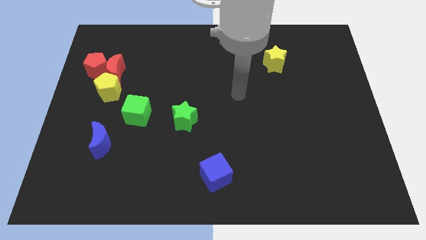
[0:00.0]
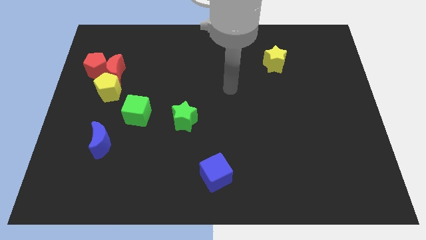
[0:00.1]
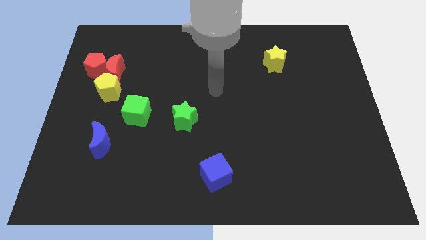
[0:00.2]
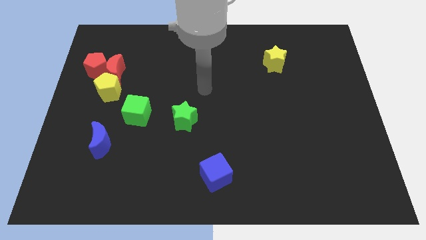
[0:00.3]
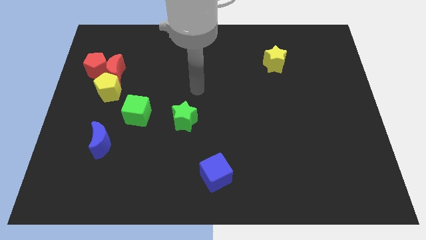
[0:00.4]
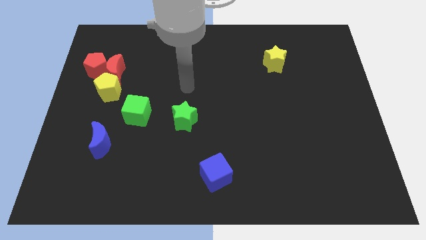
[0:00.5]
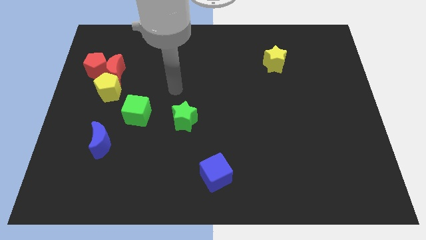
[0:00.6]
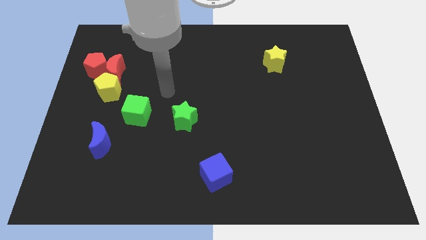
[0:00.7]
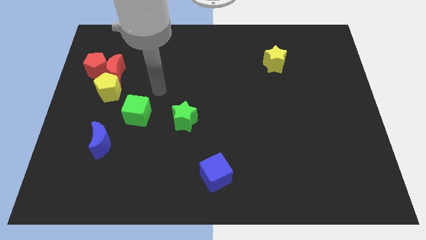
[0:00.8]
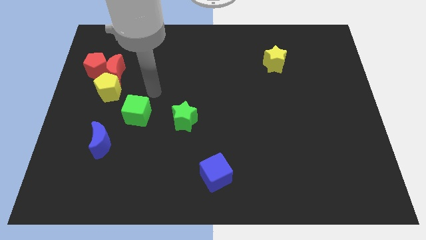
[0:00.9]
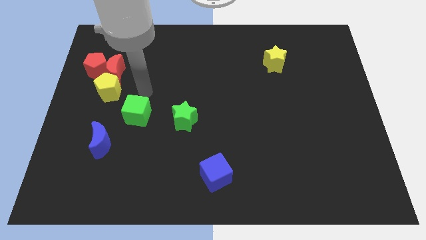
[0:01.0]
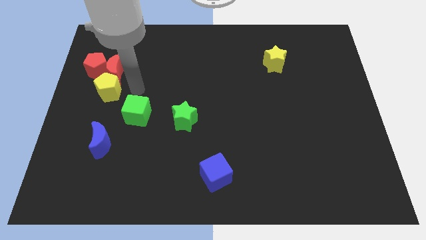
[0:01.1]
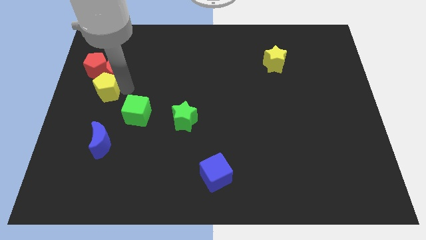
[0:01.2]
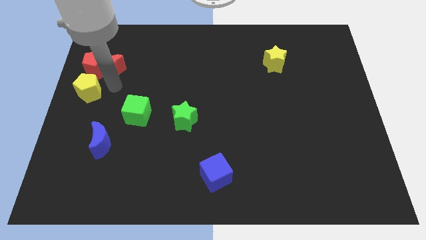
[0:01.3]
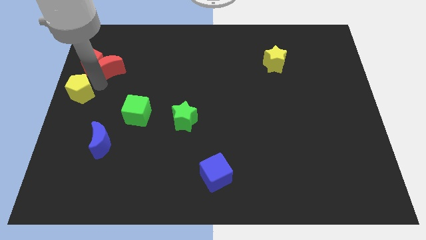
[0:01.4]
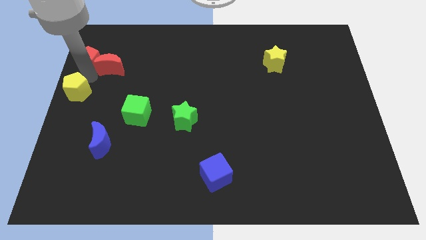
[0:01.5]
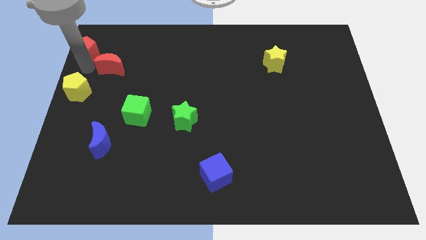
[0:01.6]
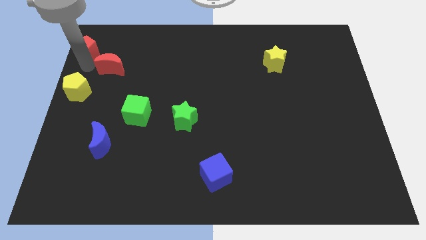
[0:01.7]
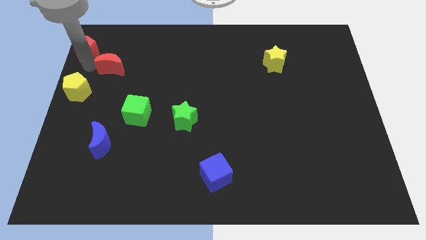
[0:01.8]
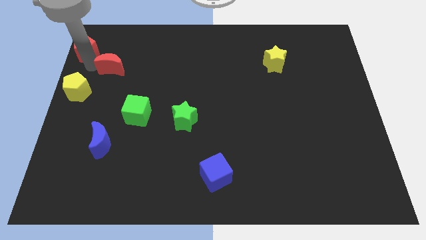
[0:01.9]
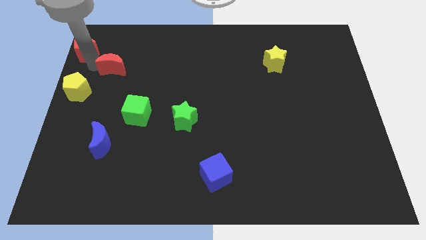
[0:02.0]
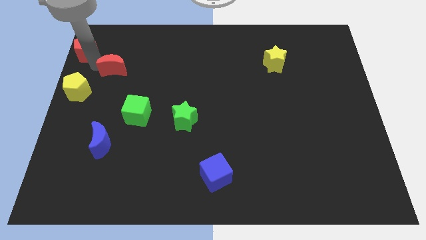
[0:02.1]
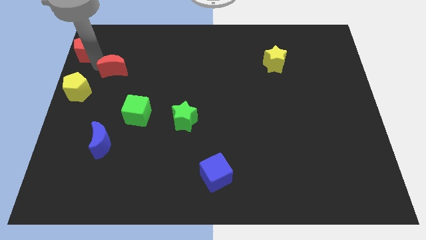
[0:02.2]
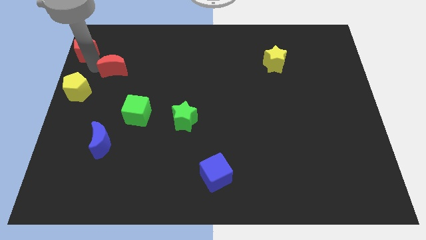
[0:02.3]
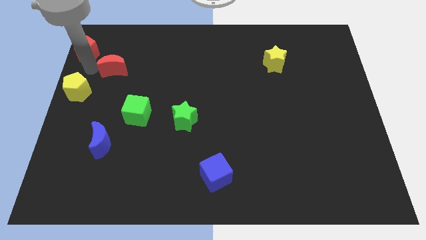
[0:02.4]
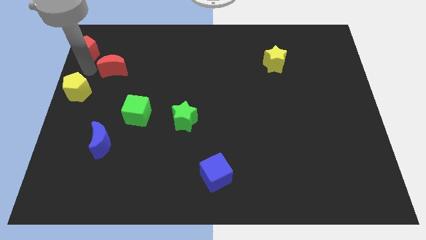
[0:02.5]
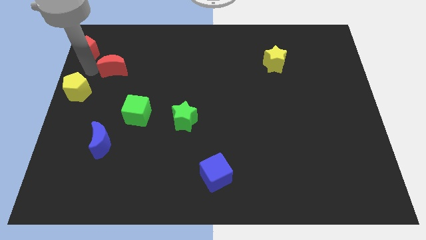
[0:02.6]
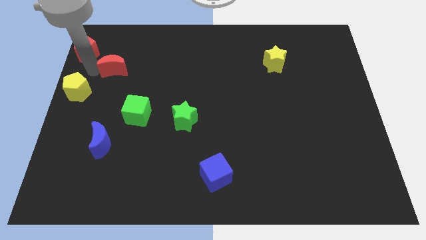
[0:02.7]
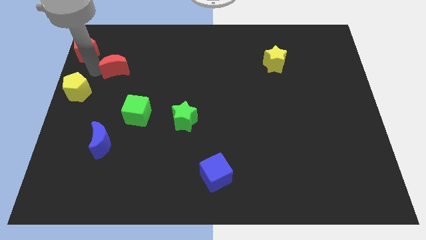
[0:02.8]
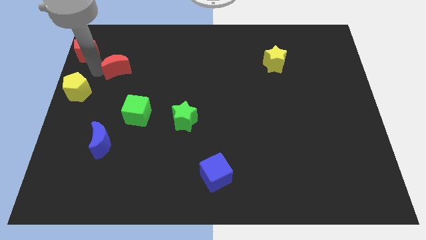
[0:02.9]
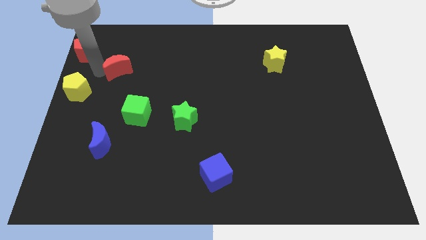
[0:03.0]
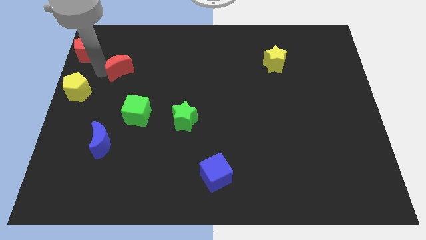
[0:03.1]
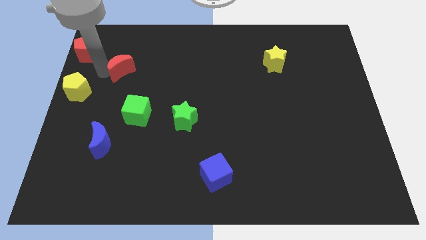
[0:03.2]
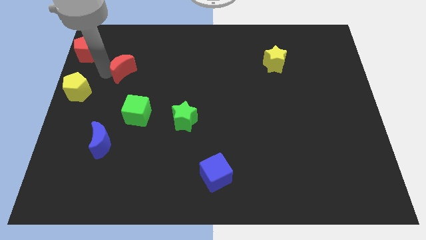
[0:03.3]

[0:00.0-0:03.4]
pull the red moon apart from the red pentagon and yellow pentagon

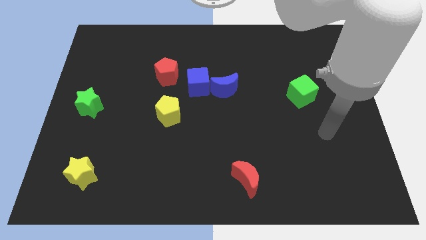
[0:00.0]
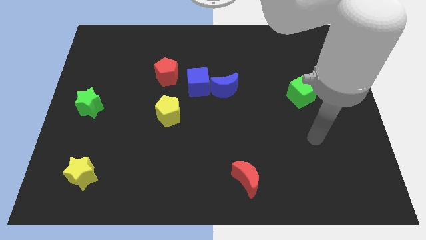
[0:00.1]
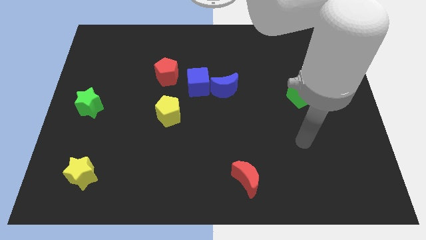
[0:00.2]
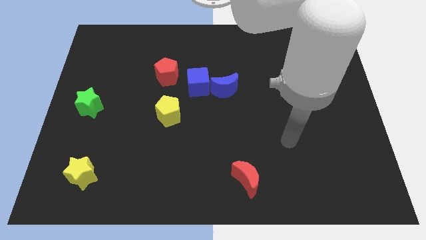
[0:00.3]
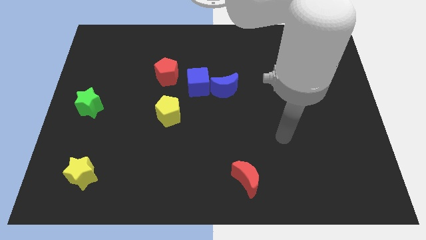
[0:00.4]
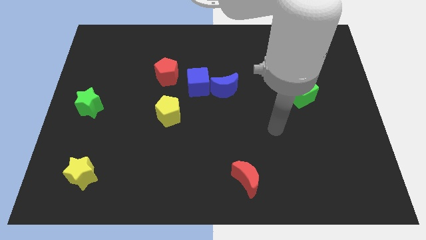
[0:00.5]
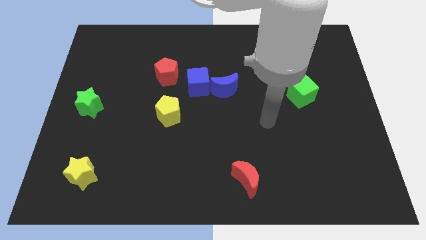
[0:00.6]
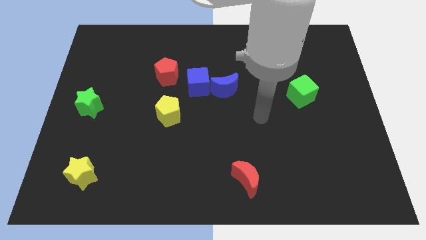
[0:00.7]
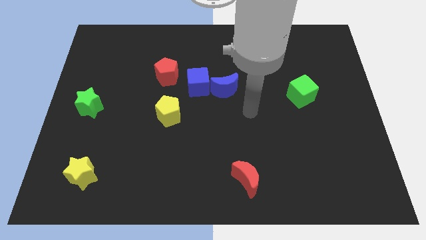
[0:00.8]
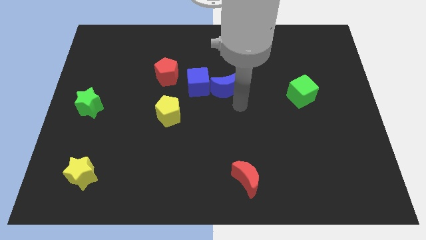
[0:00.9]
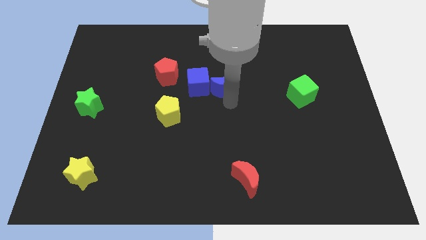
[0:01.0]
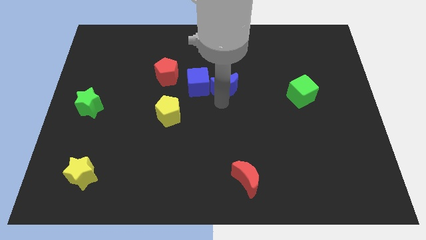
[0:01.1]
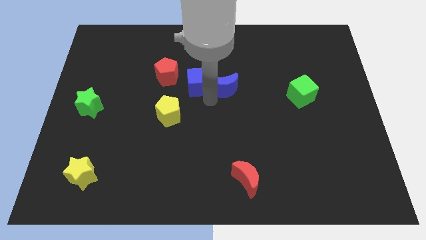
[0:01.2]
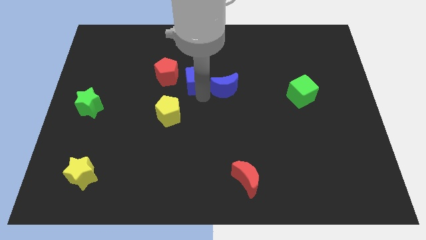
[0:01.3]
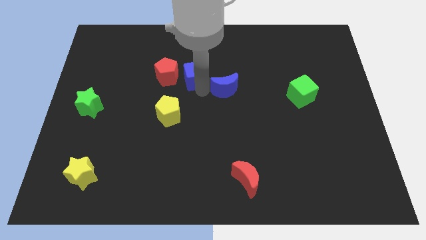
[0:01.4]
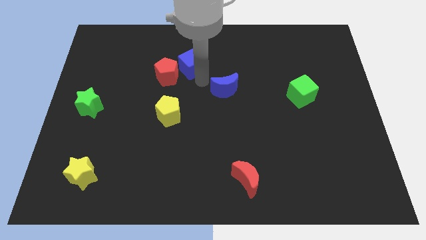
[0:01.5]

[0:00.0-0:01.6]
move the blue moon away from the blue cube

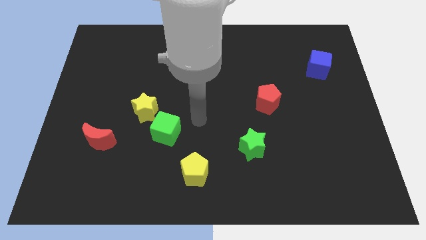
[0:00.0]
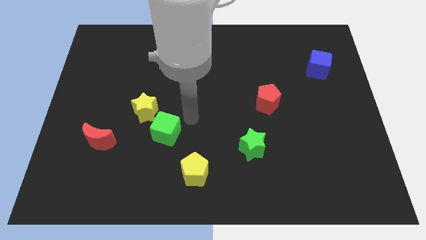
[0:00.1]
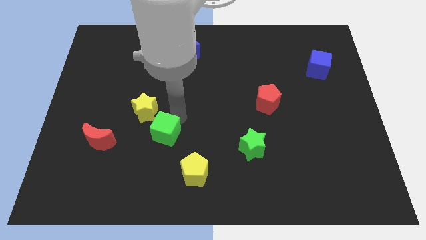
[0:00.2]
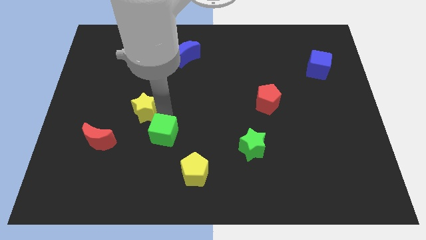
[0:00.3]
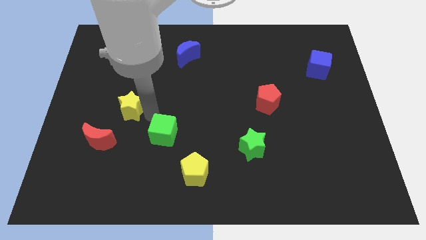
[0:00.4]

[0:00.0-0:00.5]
pull the green cube apart from the yellow star

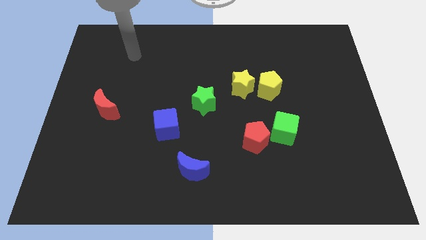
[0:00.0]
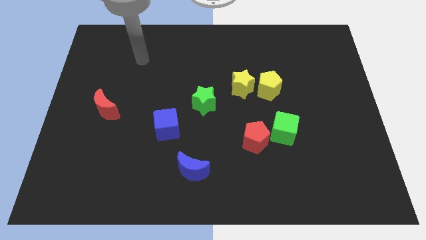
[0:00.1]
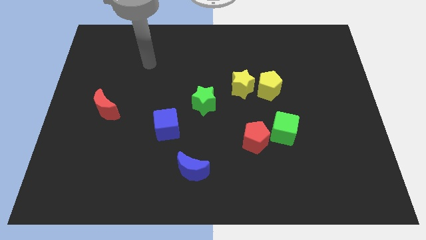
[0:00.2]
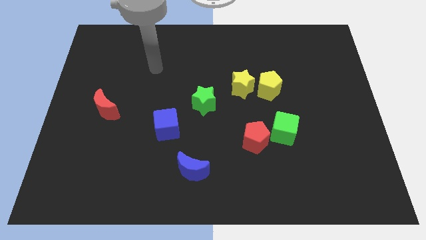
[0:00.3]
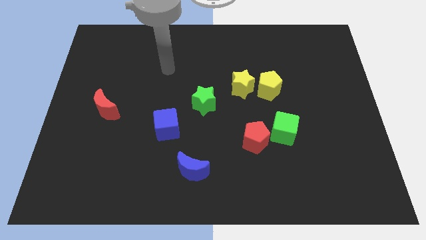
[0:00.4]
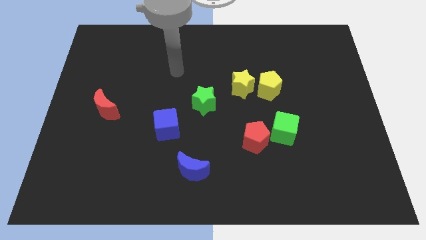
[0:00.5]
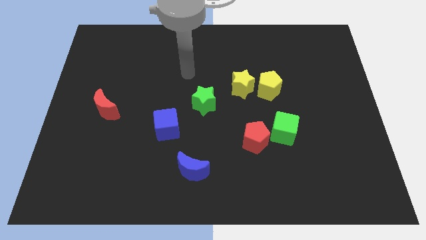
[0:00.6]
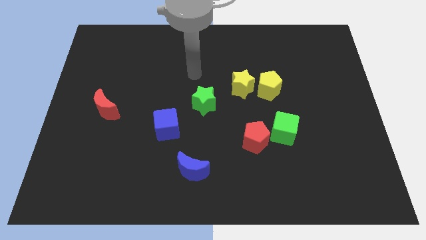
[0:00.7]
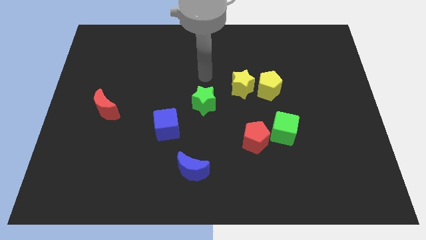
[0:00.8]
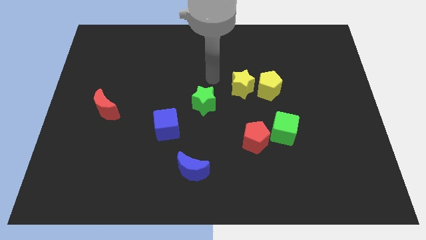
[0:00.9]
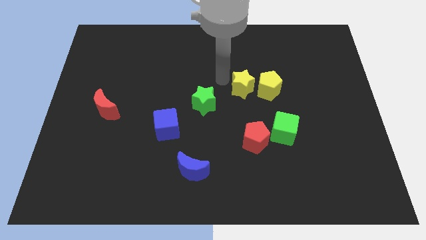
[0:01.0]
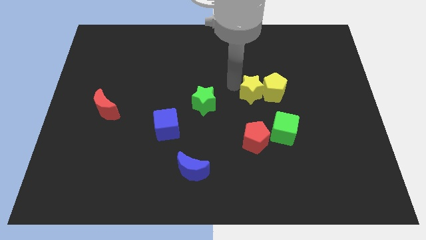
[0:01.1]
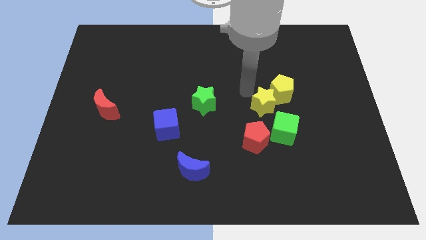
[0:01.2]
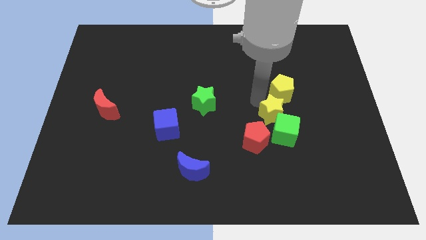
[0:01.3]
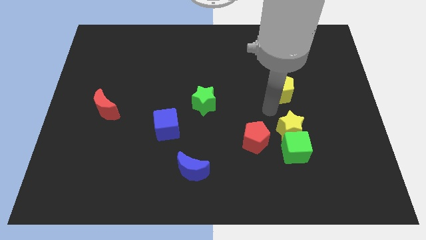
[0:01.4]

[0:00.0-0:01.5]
separate the yellow pentagon from the yellow star

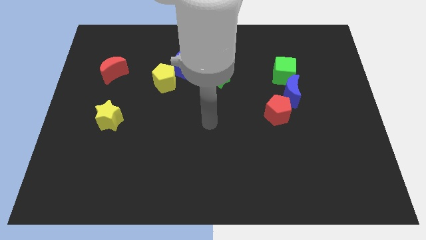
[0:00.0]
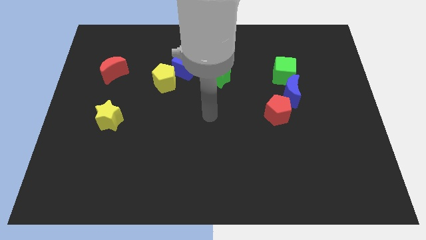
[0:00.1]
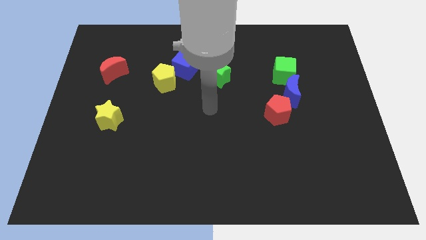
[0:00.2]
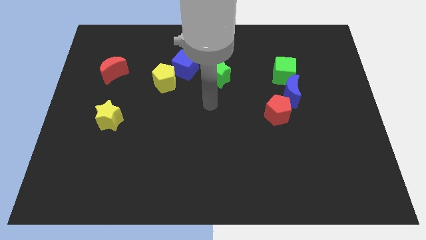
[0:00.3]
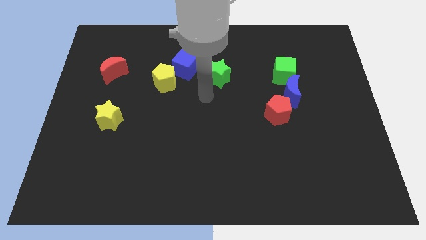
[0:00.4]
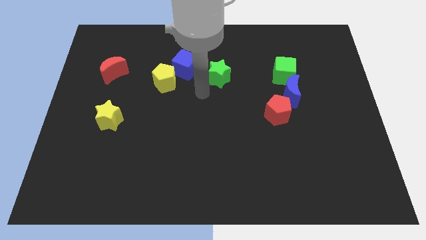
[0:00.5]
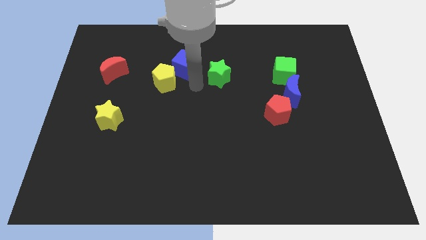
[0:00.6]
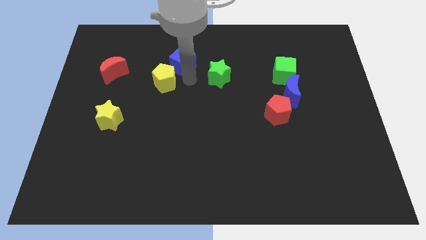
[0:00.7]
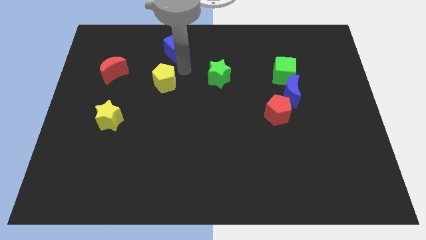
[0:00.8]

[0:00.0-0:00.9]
move the yellow pentagon away from the blue cube

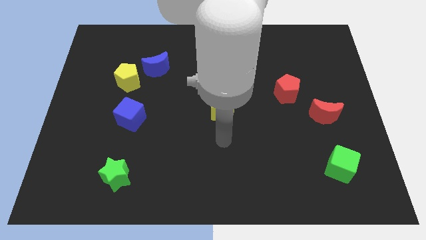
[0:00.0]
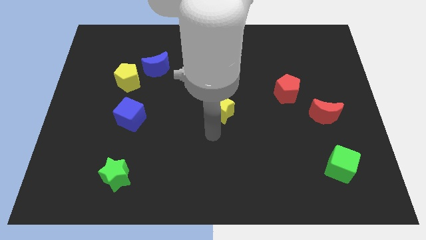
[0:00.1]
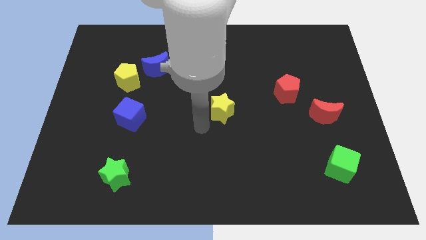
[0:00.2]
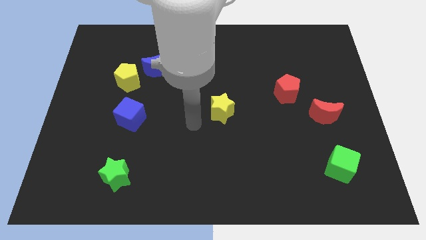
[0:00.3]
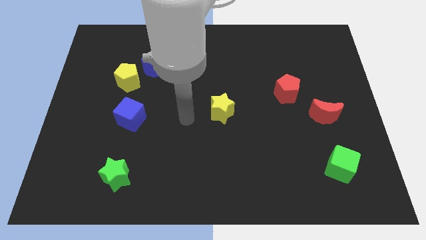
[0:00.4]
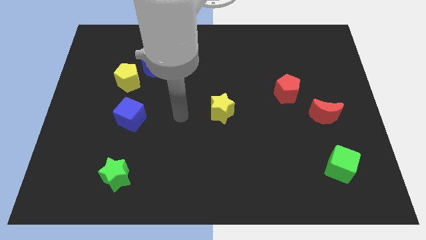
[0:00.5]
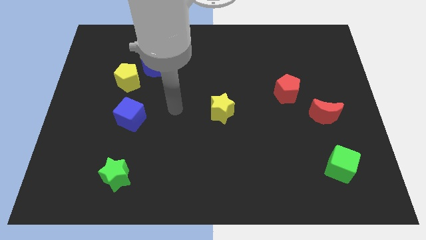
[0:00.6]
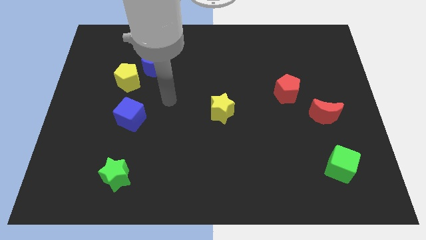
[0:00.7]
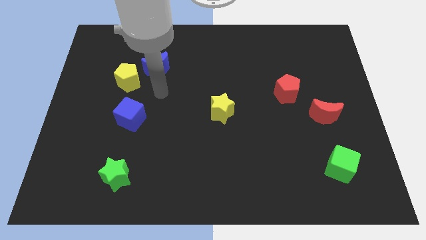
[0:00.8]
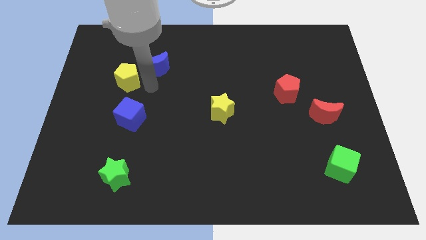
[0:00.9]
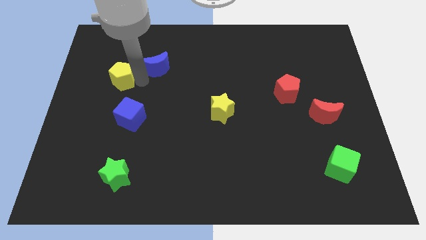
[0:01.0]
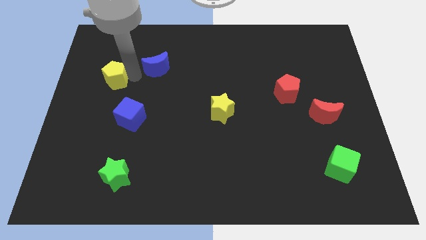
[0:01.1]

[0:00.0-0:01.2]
separate the blue moon from the yellow pentagon
